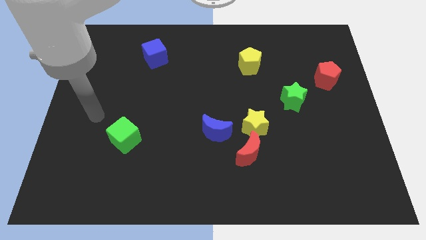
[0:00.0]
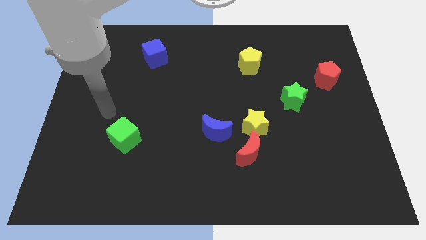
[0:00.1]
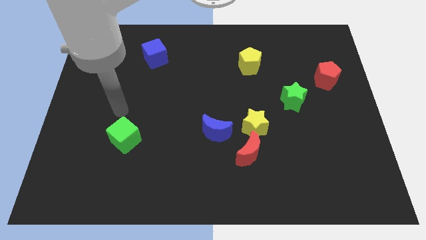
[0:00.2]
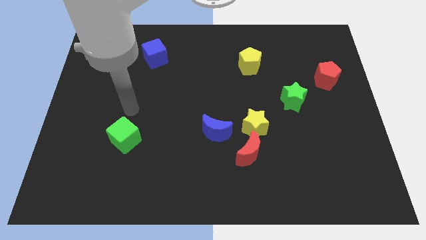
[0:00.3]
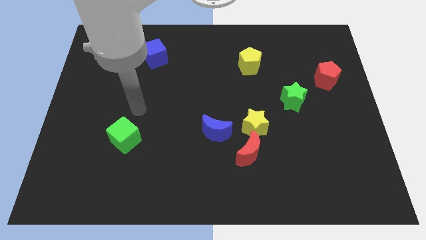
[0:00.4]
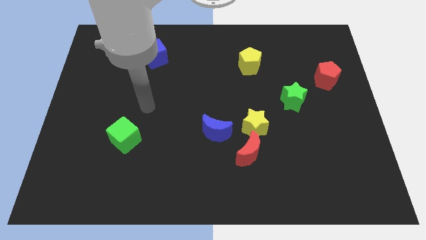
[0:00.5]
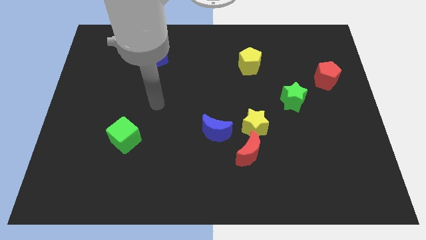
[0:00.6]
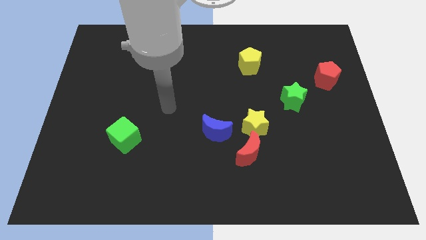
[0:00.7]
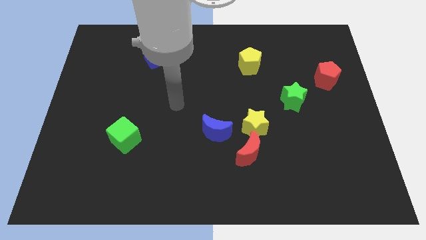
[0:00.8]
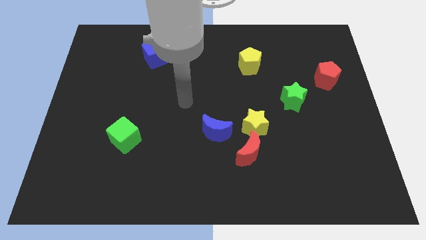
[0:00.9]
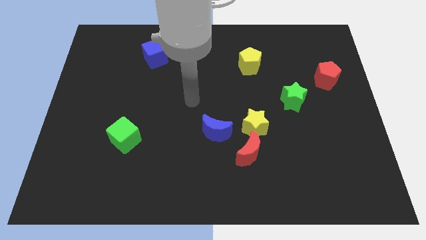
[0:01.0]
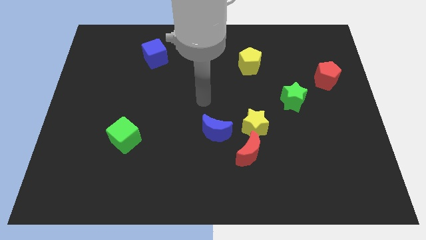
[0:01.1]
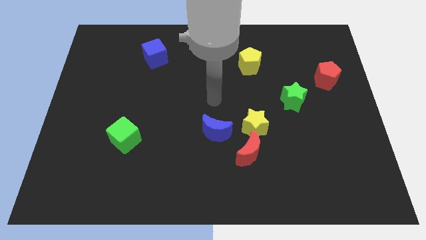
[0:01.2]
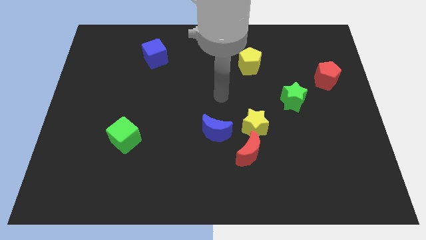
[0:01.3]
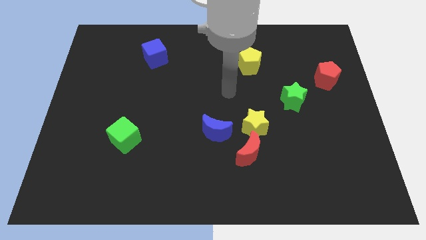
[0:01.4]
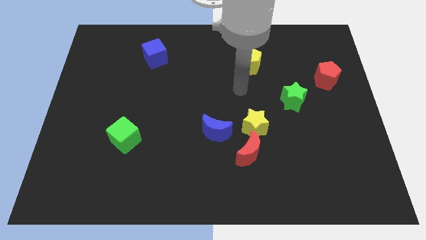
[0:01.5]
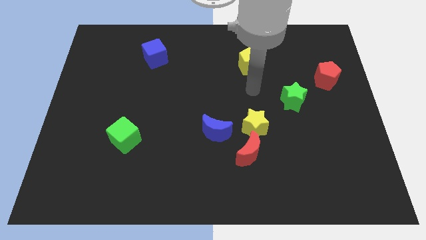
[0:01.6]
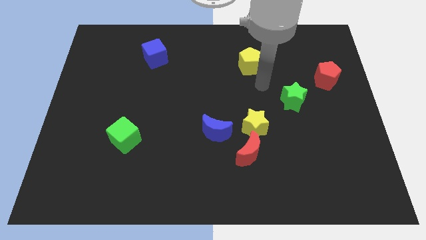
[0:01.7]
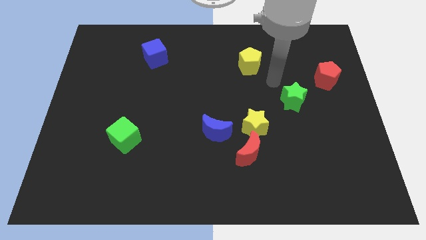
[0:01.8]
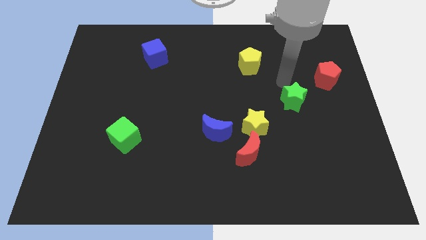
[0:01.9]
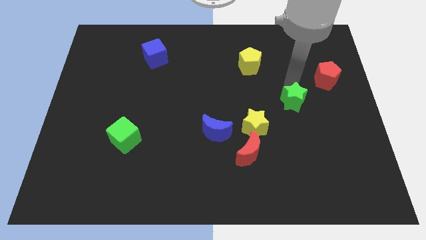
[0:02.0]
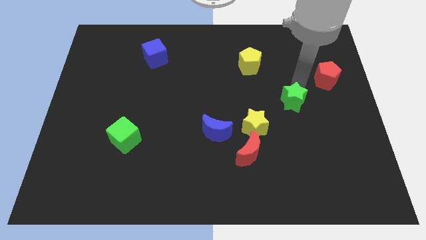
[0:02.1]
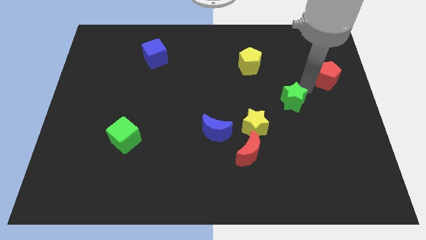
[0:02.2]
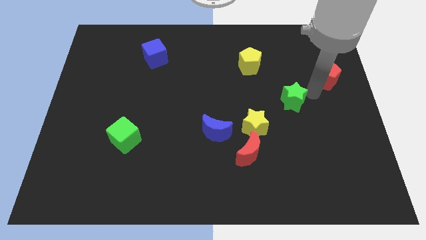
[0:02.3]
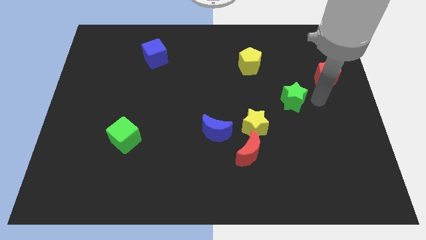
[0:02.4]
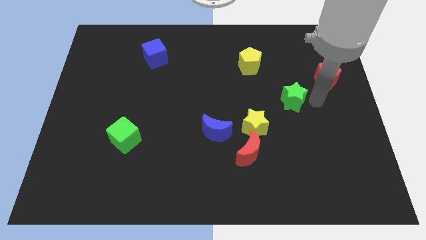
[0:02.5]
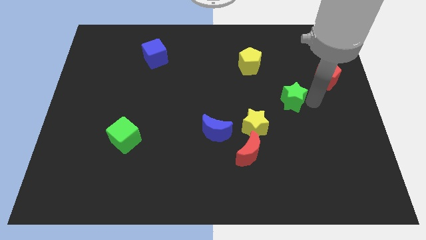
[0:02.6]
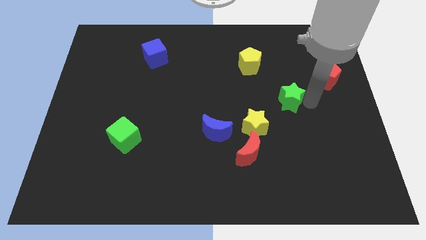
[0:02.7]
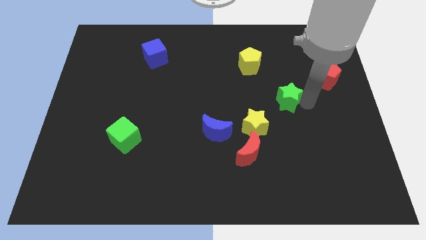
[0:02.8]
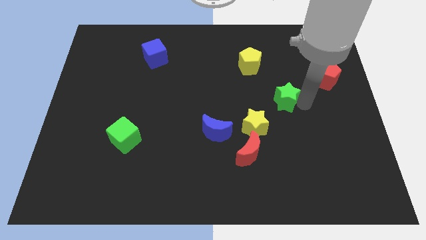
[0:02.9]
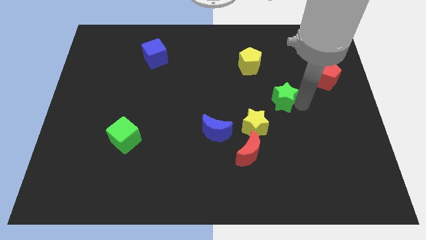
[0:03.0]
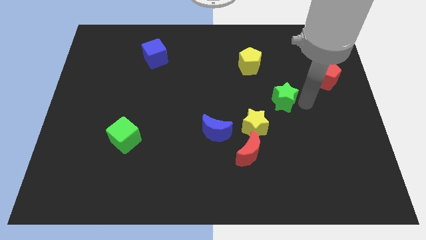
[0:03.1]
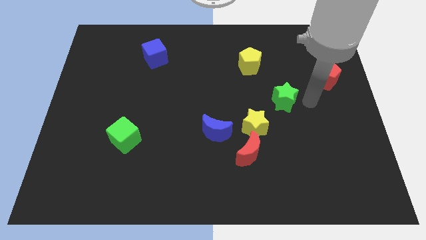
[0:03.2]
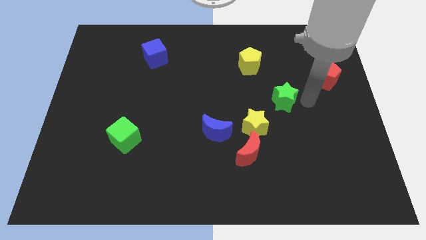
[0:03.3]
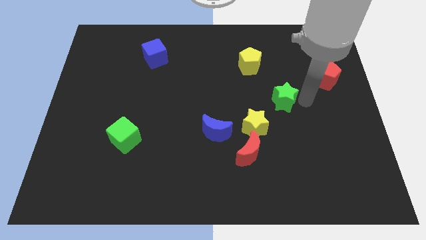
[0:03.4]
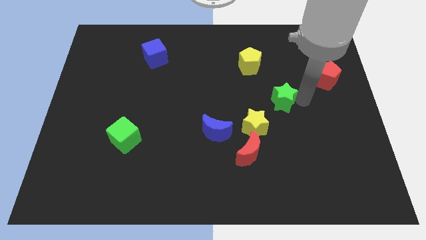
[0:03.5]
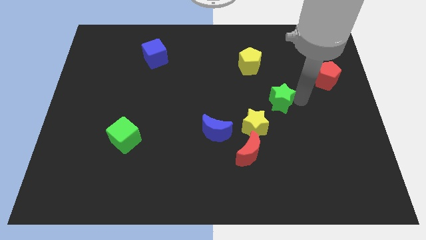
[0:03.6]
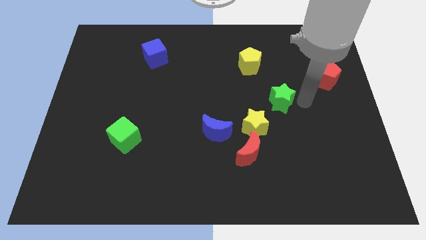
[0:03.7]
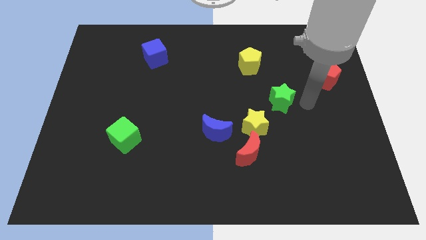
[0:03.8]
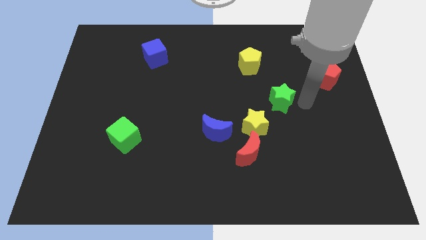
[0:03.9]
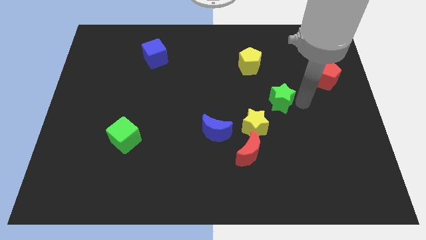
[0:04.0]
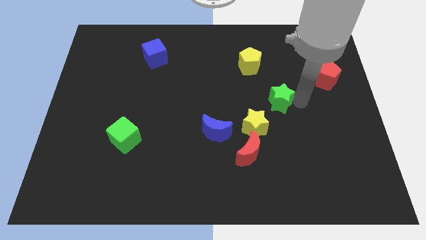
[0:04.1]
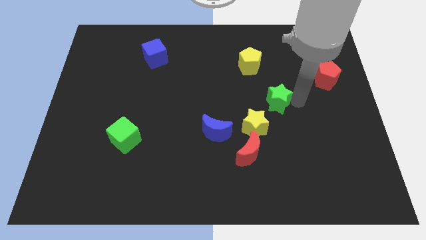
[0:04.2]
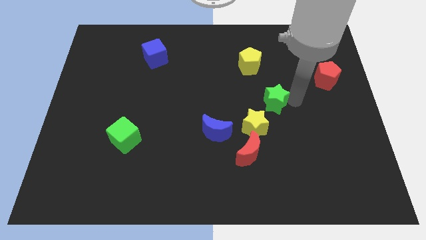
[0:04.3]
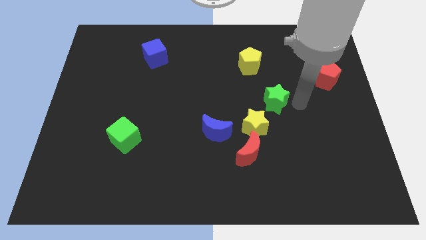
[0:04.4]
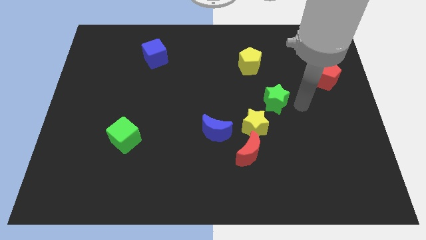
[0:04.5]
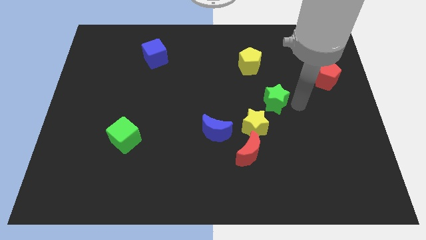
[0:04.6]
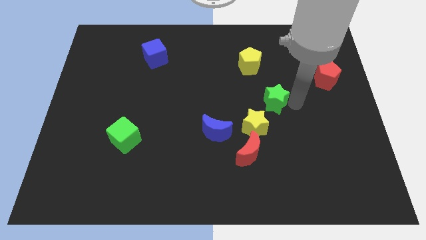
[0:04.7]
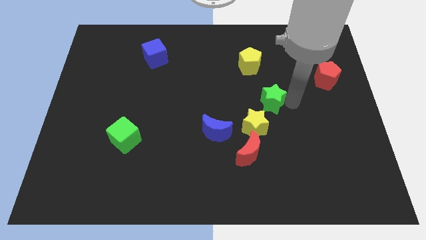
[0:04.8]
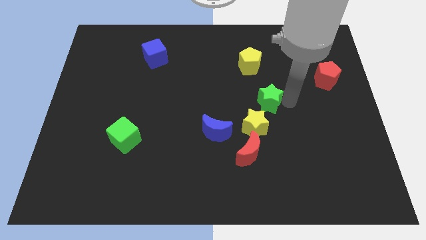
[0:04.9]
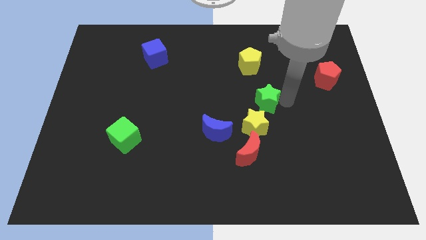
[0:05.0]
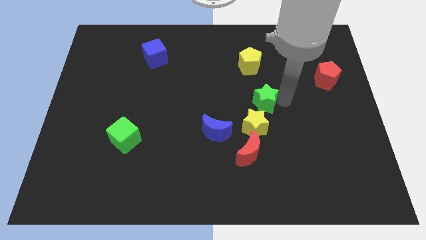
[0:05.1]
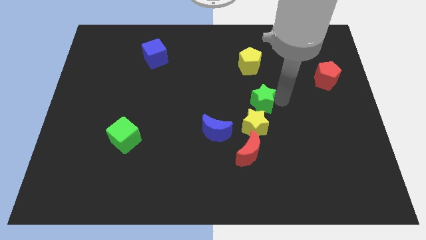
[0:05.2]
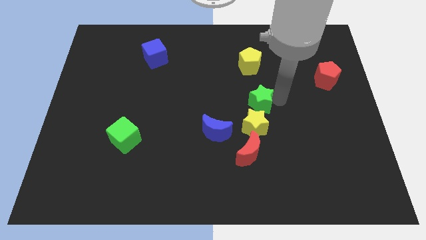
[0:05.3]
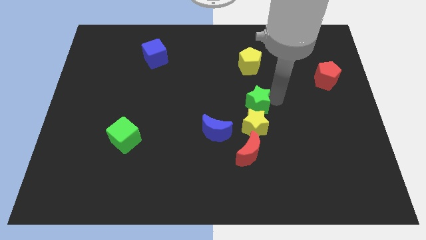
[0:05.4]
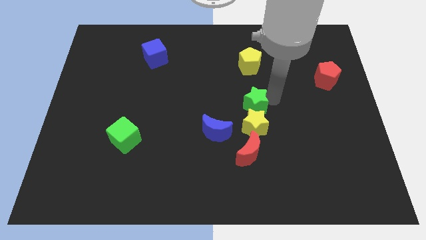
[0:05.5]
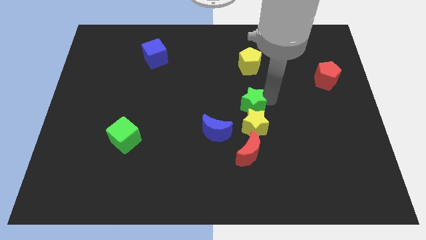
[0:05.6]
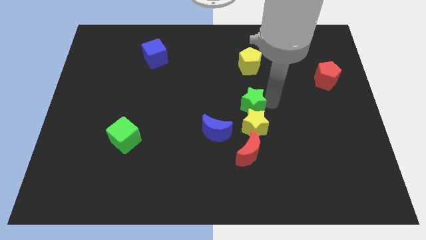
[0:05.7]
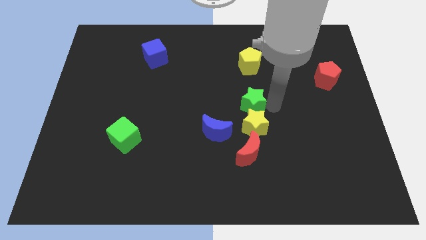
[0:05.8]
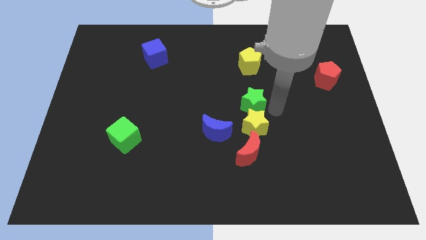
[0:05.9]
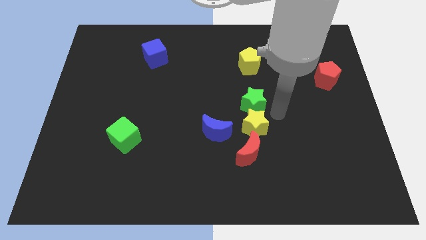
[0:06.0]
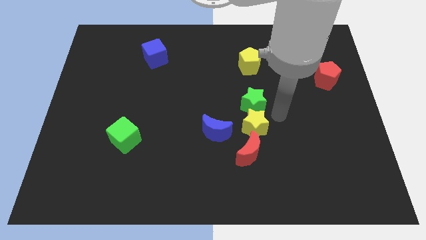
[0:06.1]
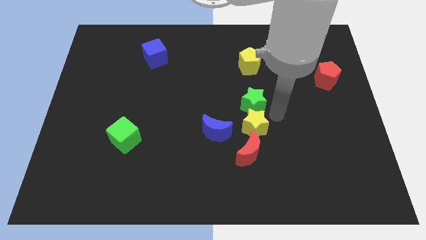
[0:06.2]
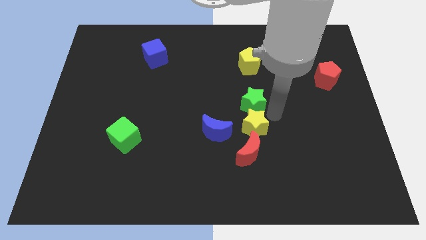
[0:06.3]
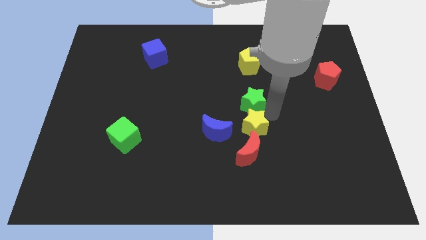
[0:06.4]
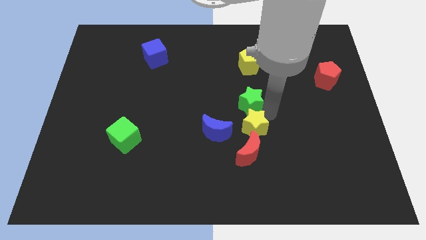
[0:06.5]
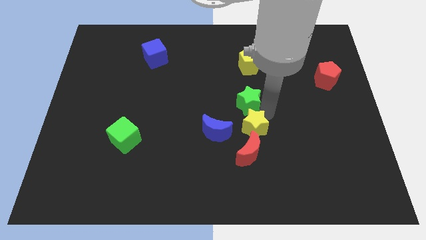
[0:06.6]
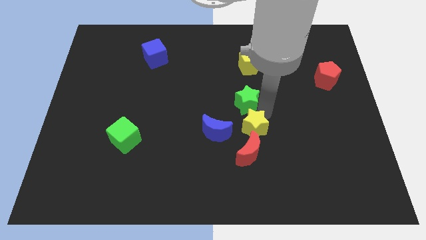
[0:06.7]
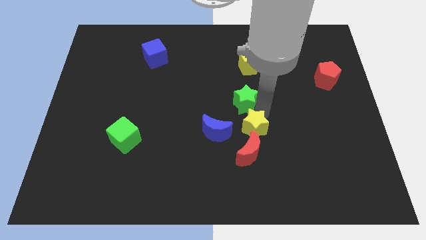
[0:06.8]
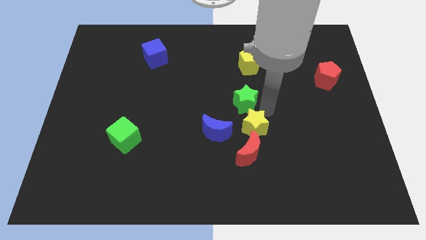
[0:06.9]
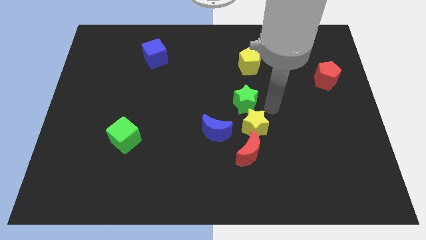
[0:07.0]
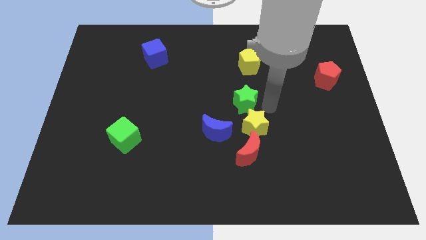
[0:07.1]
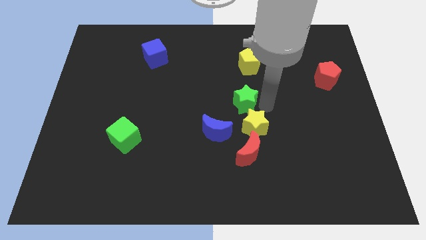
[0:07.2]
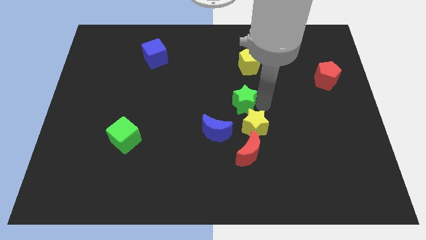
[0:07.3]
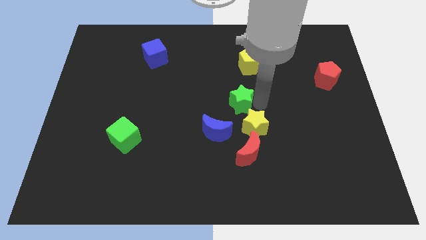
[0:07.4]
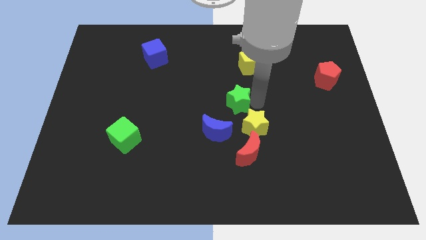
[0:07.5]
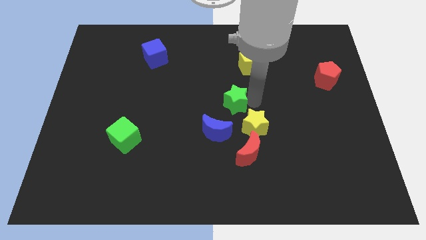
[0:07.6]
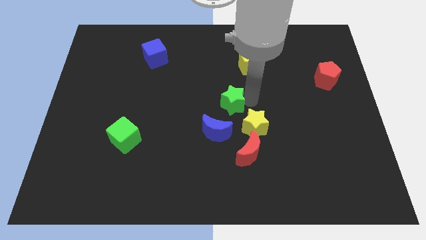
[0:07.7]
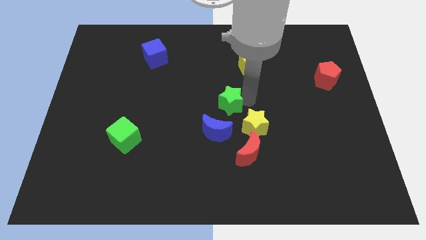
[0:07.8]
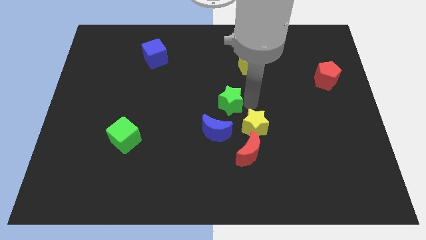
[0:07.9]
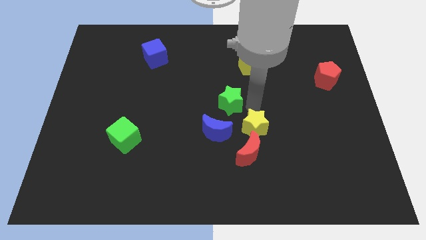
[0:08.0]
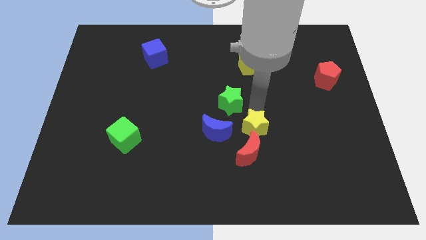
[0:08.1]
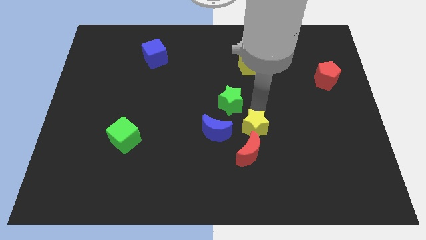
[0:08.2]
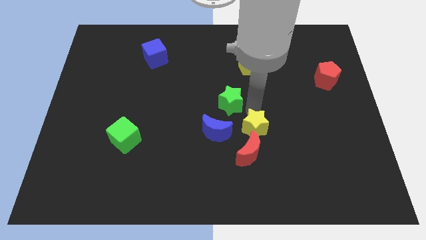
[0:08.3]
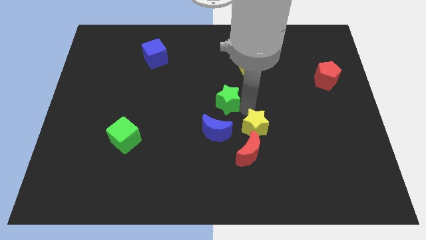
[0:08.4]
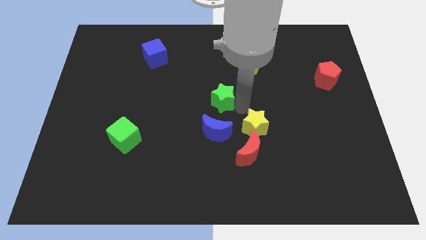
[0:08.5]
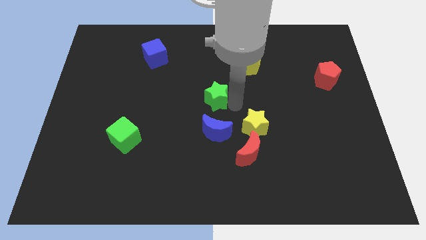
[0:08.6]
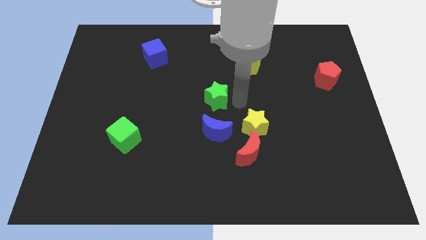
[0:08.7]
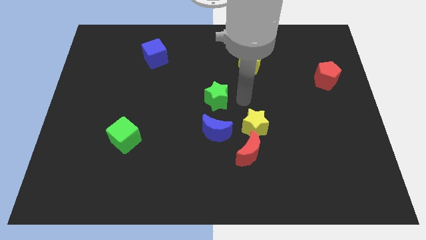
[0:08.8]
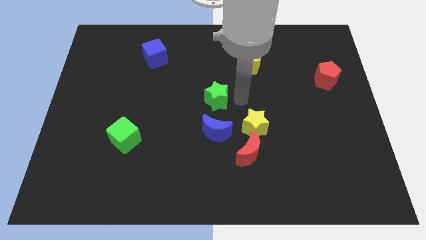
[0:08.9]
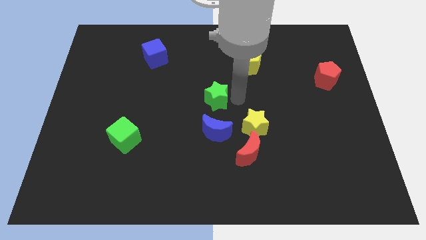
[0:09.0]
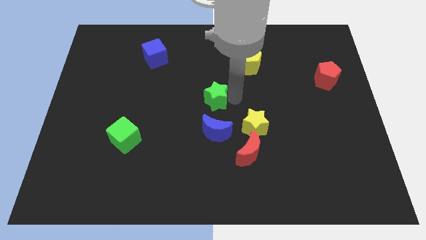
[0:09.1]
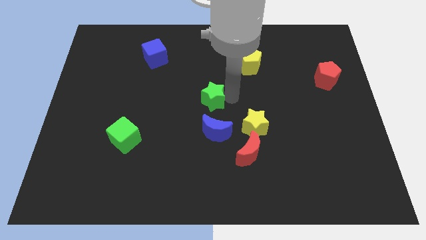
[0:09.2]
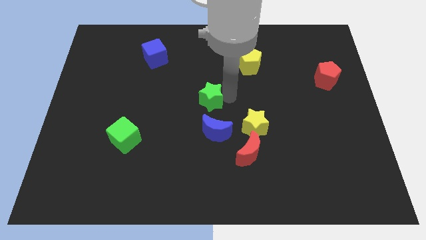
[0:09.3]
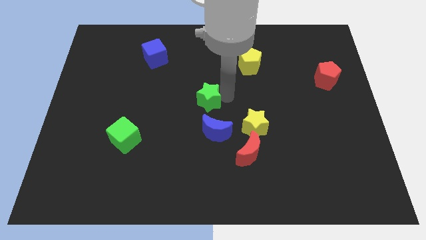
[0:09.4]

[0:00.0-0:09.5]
push the green star to the left
